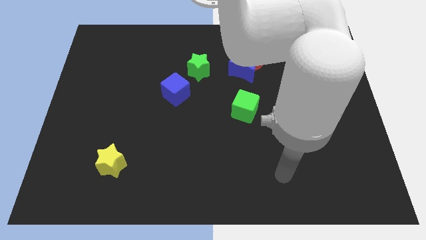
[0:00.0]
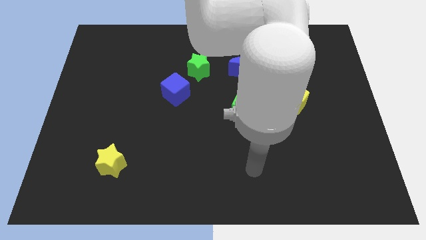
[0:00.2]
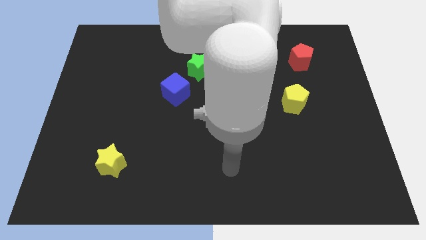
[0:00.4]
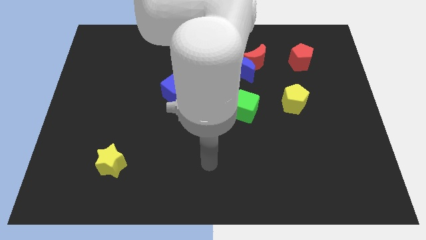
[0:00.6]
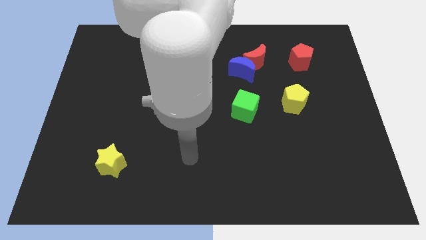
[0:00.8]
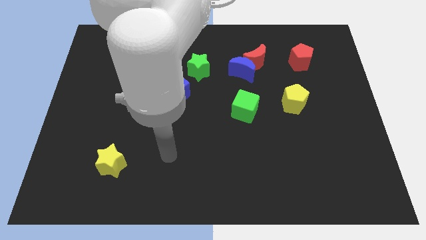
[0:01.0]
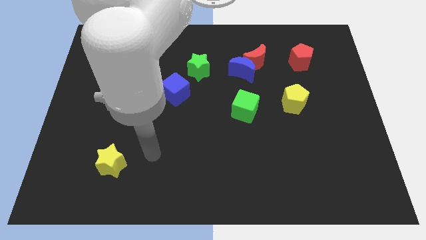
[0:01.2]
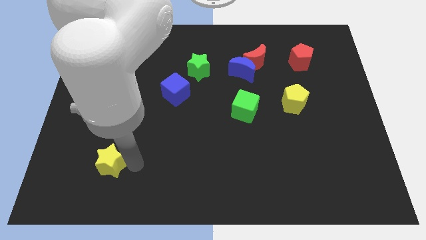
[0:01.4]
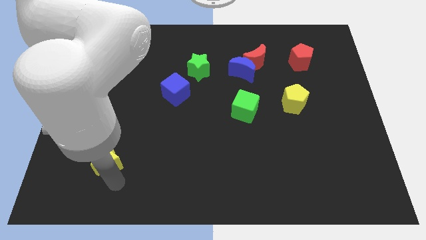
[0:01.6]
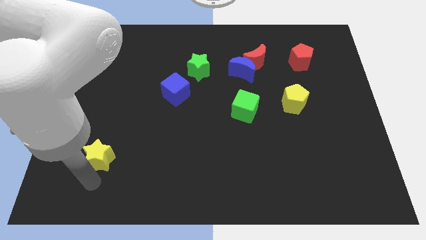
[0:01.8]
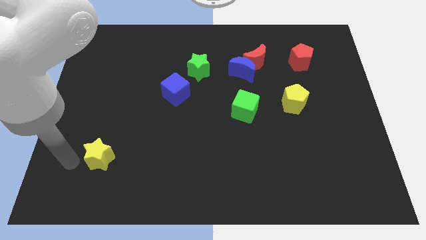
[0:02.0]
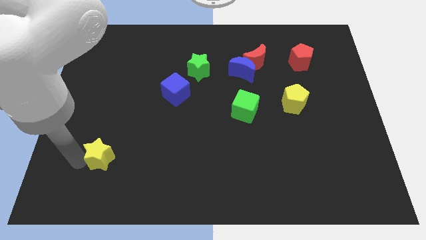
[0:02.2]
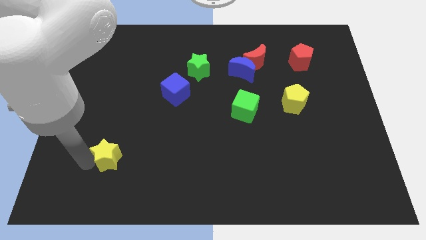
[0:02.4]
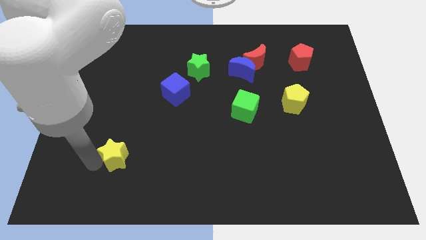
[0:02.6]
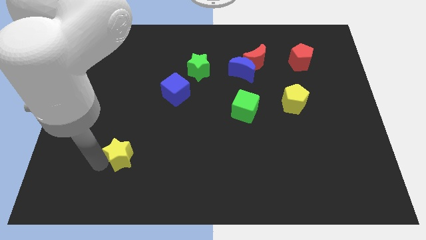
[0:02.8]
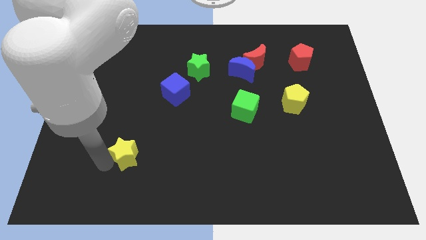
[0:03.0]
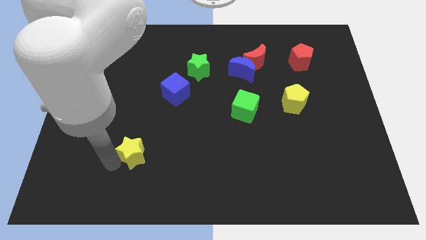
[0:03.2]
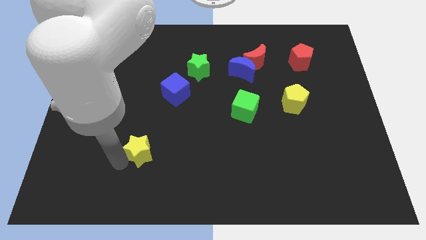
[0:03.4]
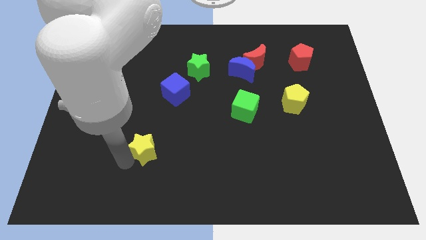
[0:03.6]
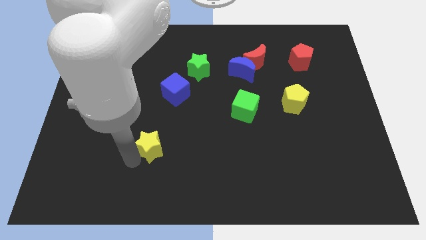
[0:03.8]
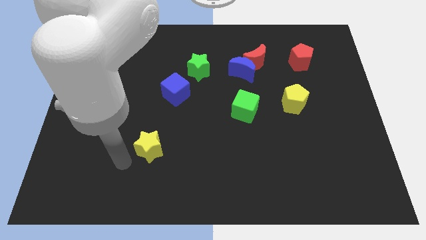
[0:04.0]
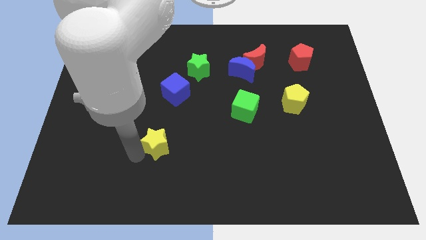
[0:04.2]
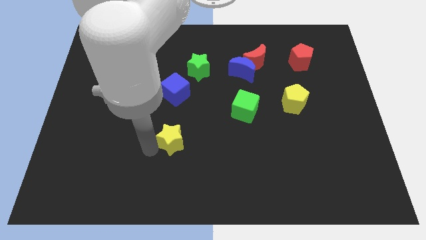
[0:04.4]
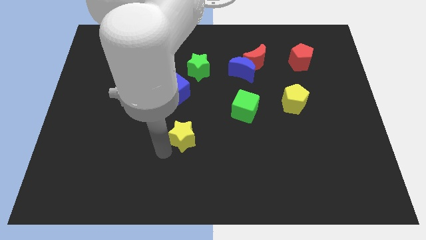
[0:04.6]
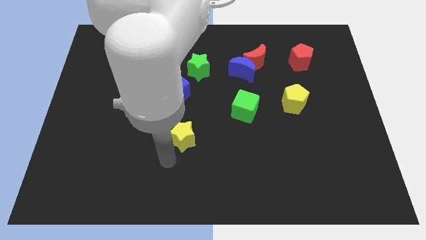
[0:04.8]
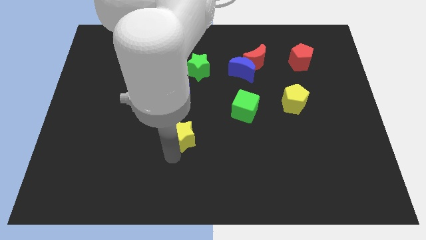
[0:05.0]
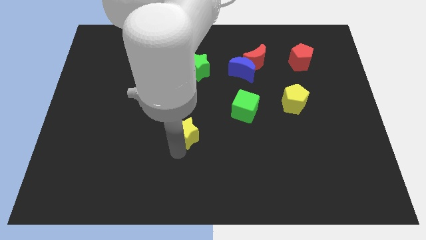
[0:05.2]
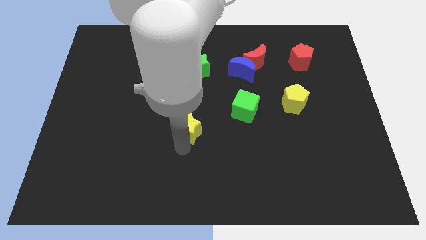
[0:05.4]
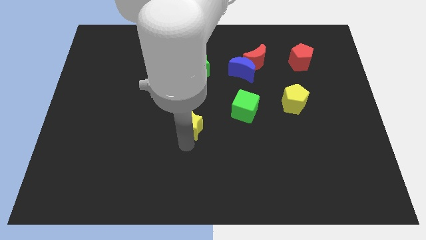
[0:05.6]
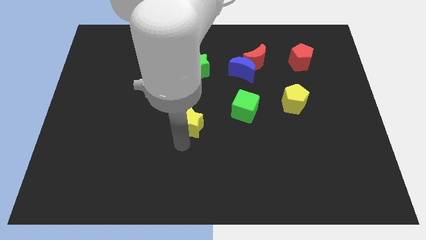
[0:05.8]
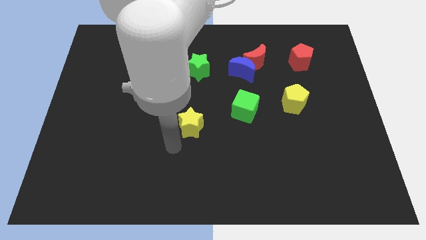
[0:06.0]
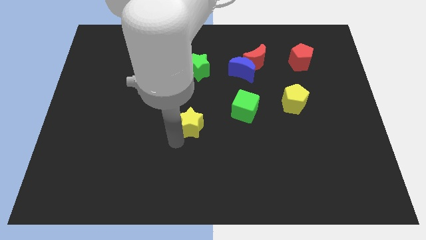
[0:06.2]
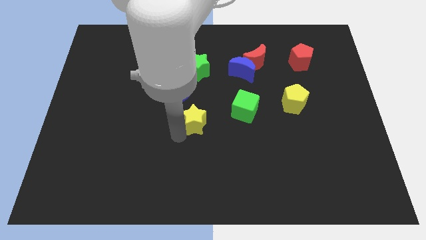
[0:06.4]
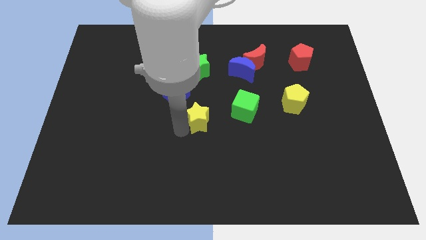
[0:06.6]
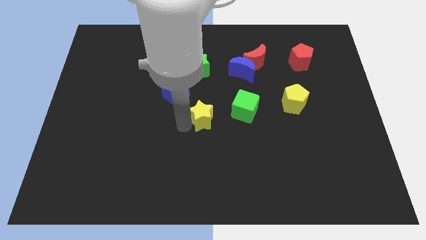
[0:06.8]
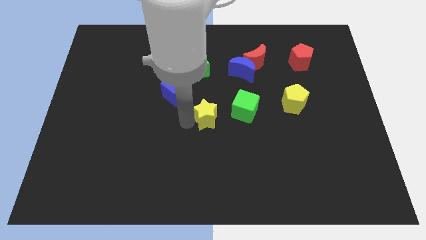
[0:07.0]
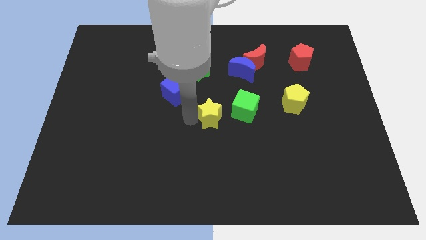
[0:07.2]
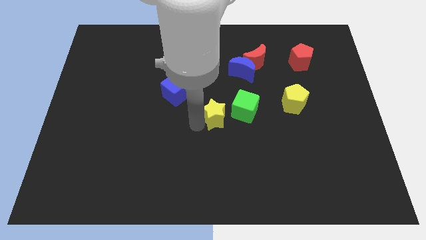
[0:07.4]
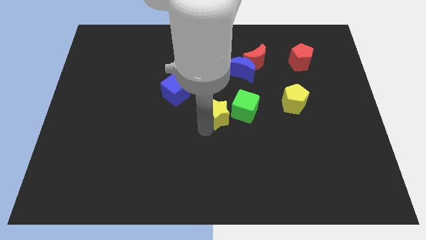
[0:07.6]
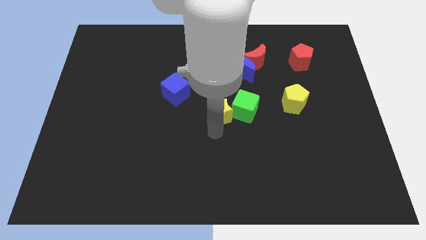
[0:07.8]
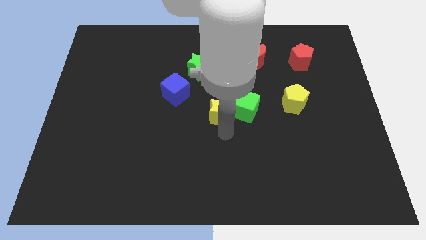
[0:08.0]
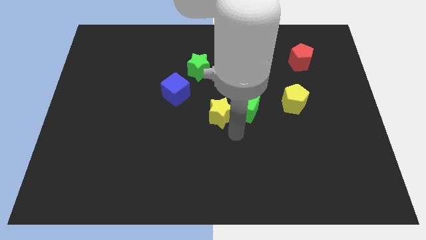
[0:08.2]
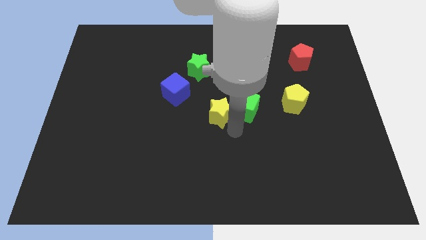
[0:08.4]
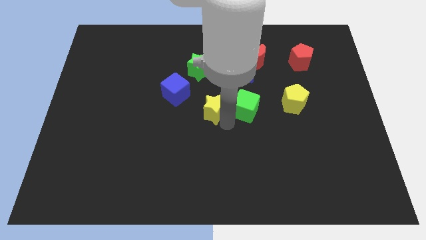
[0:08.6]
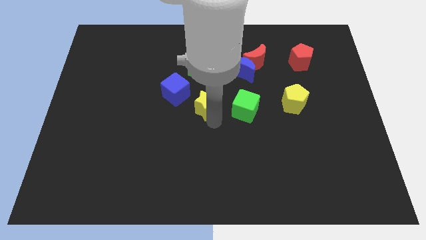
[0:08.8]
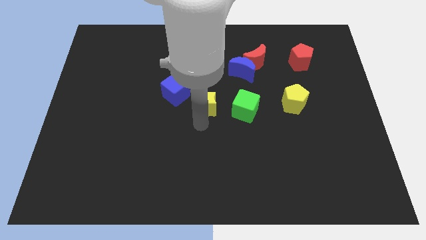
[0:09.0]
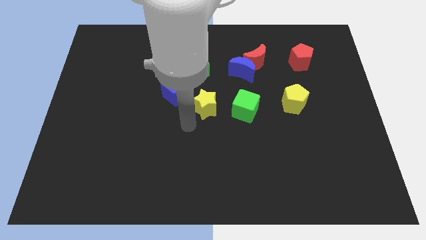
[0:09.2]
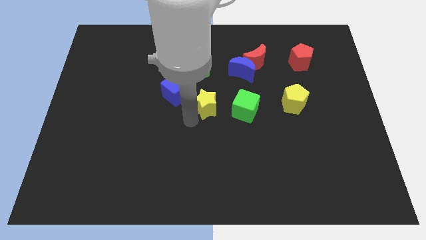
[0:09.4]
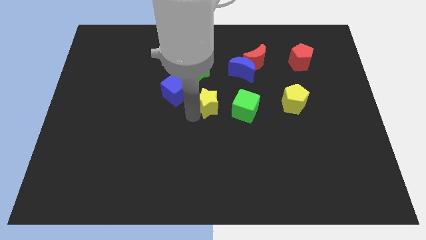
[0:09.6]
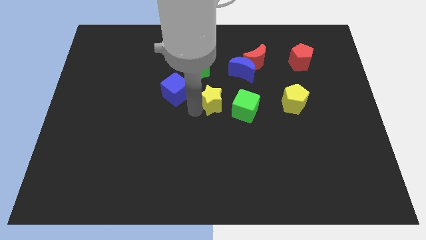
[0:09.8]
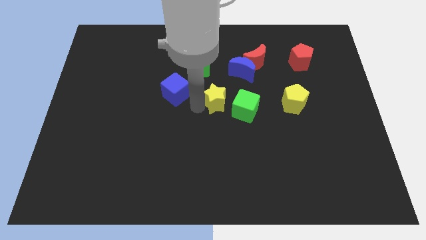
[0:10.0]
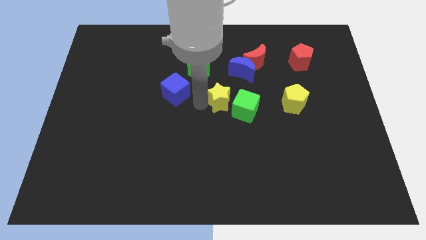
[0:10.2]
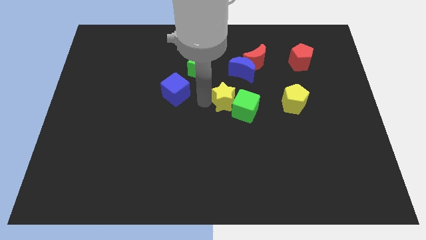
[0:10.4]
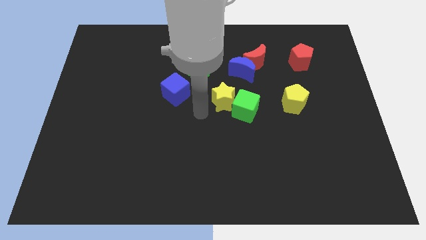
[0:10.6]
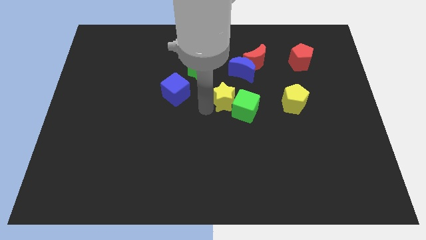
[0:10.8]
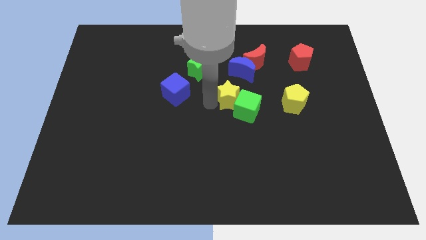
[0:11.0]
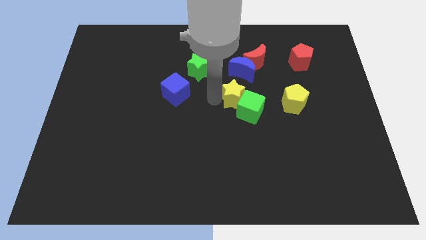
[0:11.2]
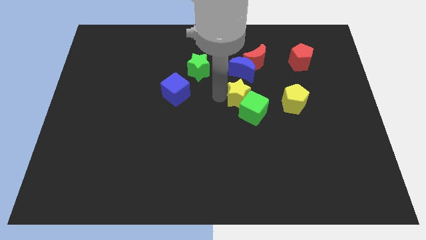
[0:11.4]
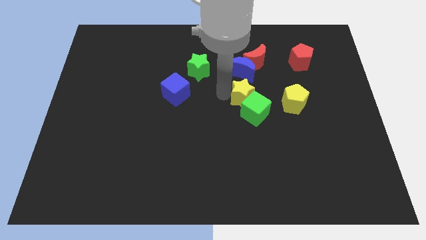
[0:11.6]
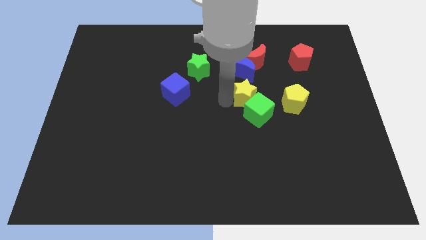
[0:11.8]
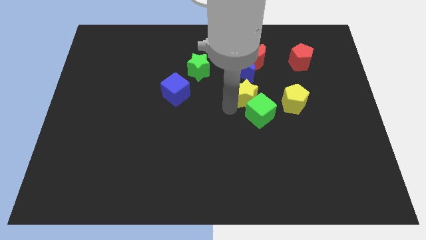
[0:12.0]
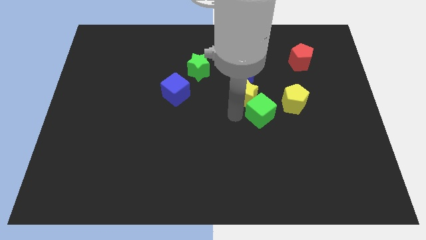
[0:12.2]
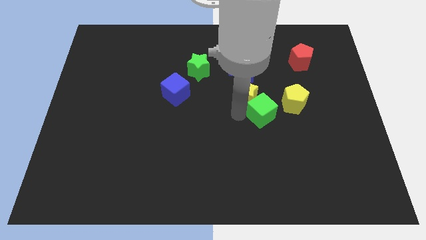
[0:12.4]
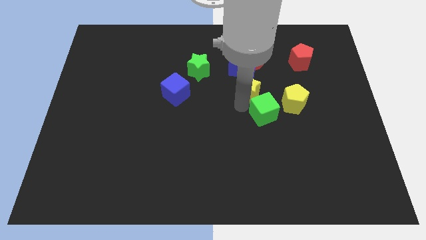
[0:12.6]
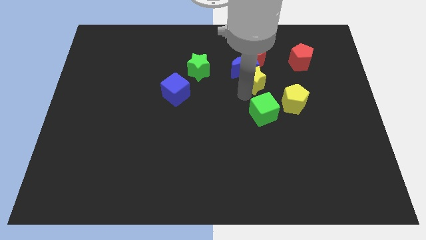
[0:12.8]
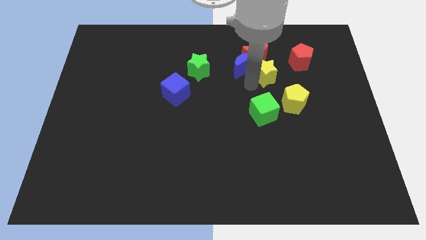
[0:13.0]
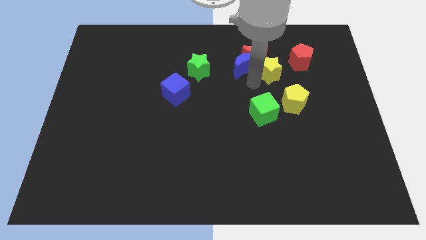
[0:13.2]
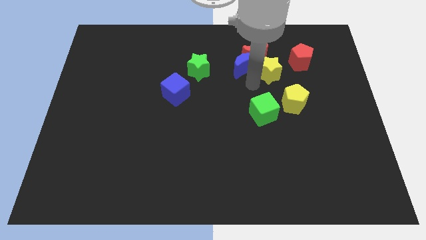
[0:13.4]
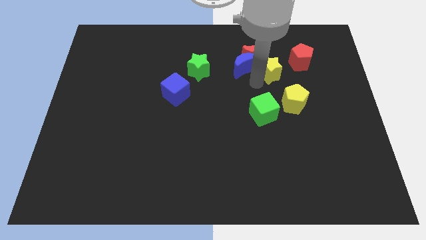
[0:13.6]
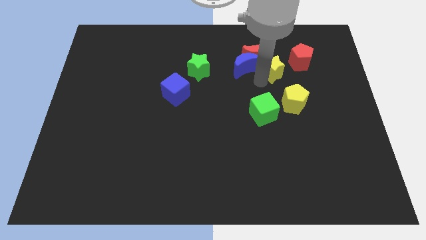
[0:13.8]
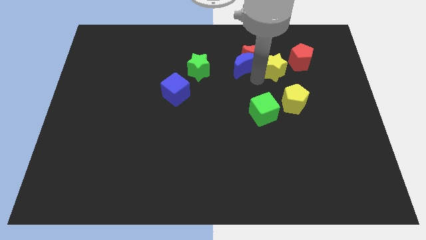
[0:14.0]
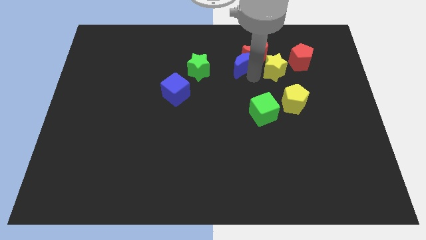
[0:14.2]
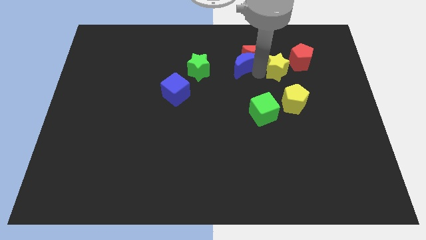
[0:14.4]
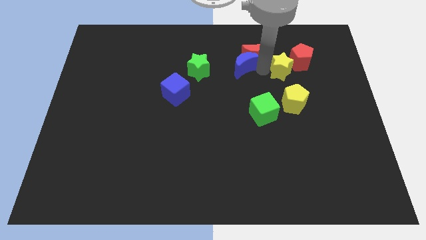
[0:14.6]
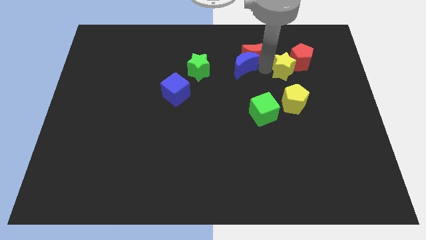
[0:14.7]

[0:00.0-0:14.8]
push the yellow star to the red pentagon
